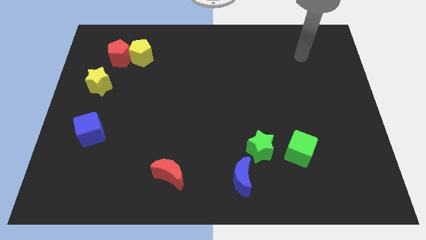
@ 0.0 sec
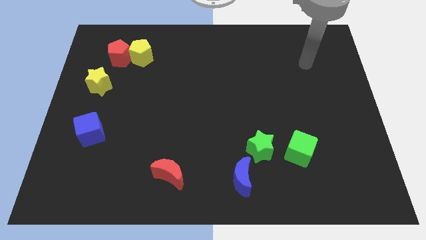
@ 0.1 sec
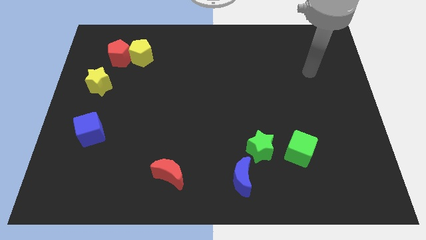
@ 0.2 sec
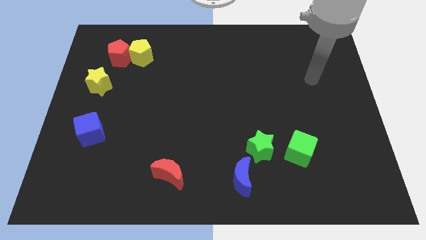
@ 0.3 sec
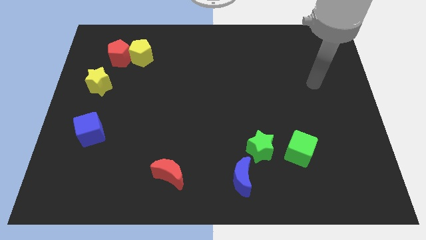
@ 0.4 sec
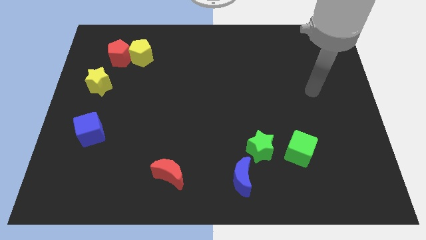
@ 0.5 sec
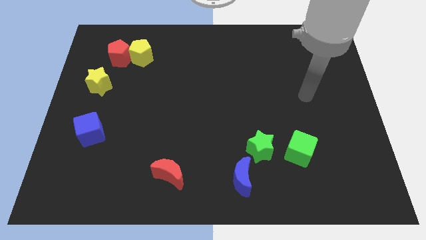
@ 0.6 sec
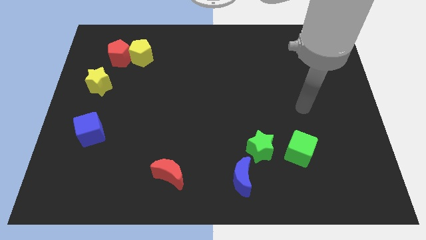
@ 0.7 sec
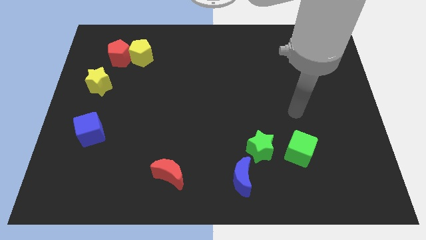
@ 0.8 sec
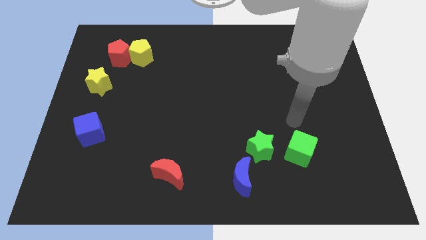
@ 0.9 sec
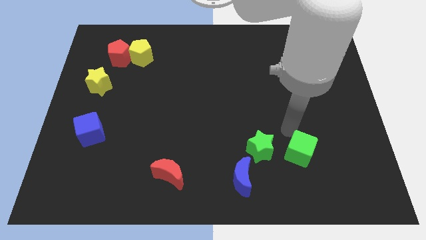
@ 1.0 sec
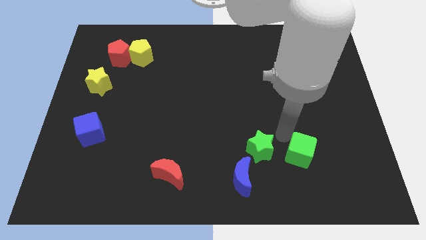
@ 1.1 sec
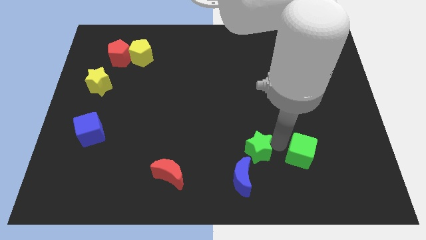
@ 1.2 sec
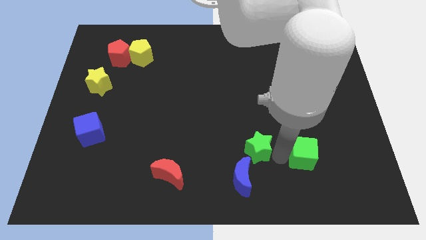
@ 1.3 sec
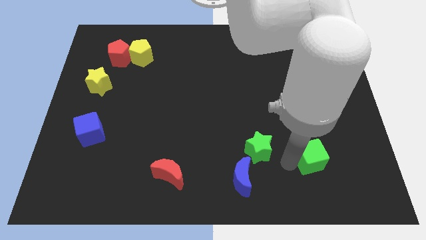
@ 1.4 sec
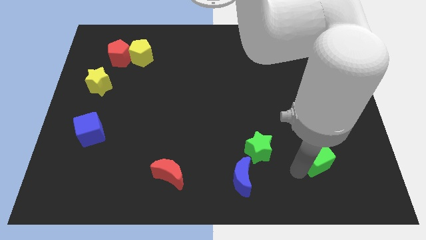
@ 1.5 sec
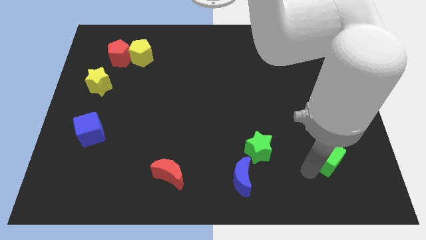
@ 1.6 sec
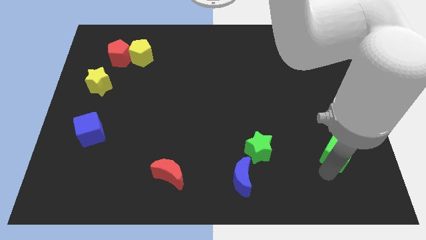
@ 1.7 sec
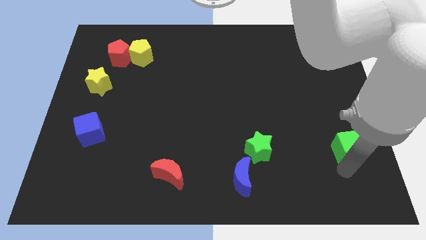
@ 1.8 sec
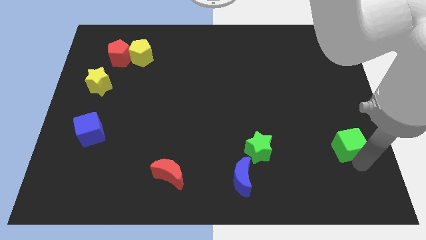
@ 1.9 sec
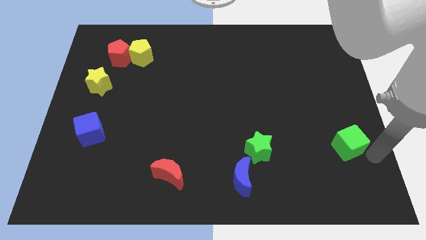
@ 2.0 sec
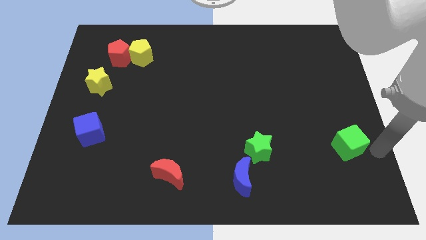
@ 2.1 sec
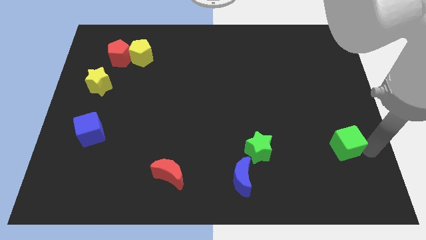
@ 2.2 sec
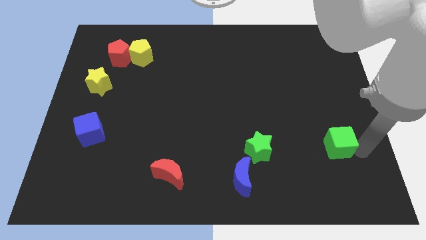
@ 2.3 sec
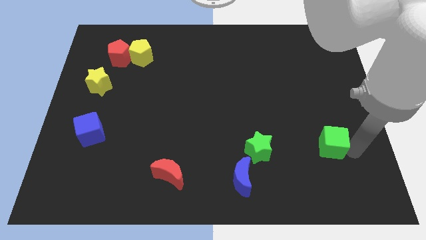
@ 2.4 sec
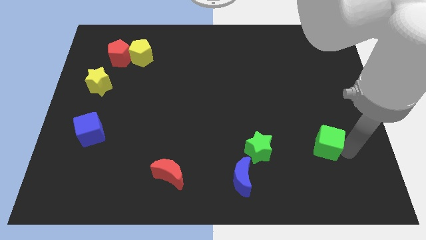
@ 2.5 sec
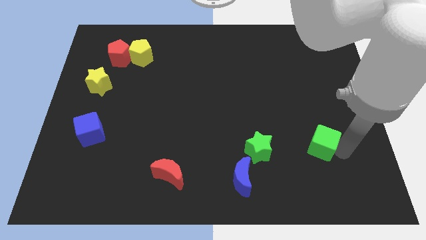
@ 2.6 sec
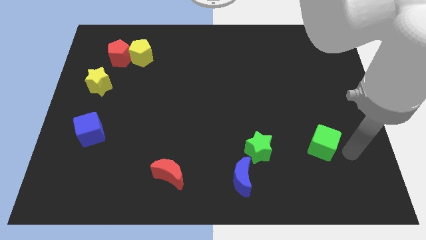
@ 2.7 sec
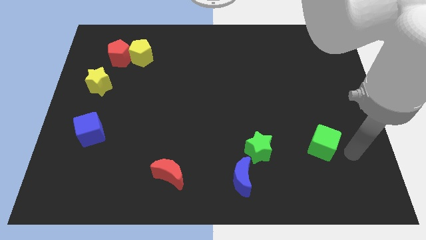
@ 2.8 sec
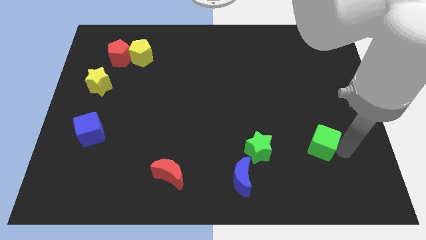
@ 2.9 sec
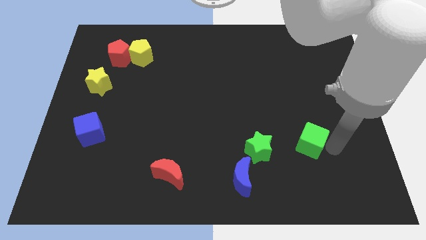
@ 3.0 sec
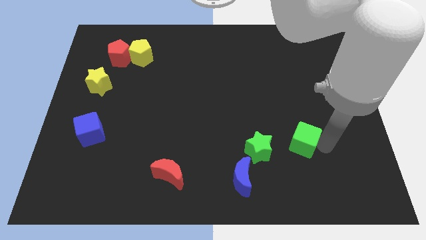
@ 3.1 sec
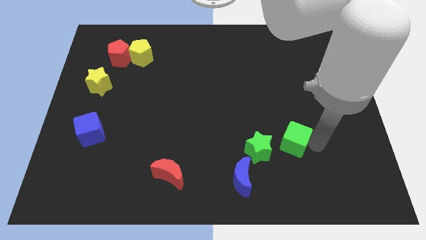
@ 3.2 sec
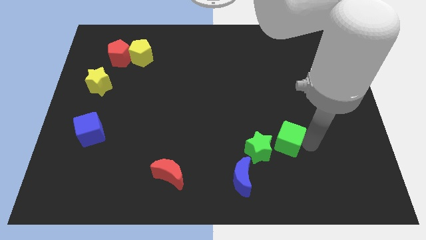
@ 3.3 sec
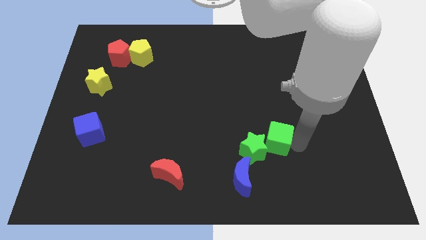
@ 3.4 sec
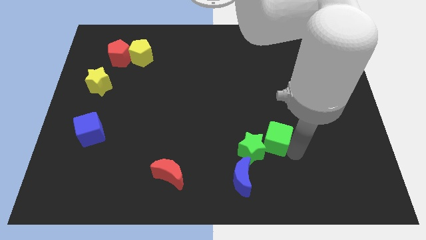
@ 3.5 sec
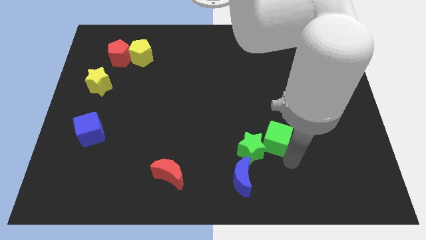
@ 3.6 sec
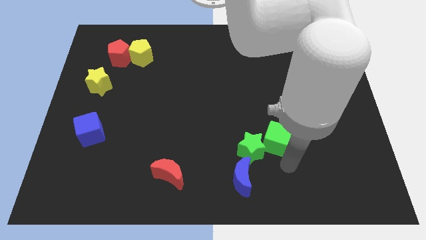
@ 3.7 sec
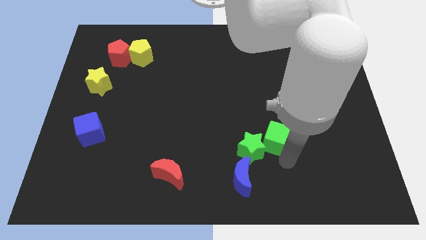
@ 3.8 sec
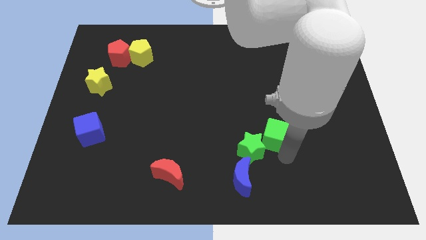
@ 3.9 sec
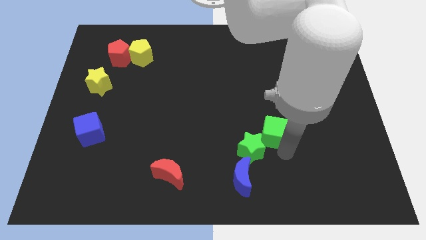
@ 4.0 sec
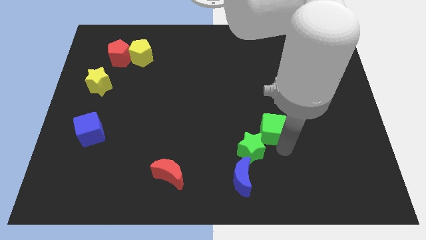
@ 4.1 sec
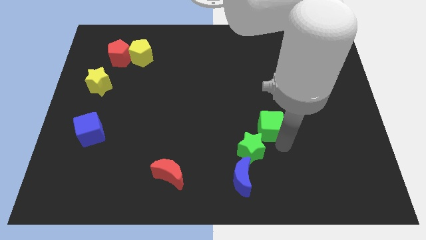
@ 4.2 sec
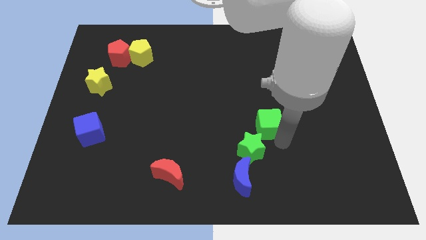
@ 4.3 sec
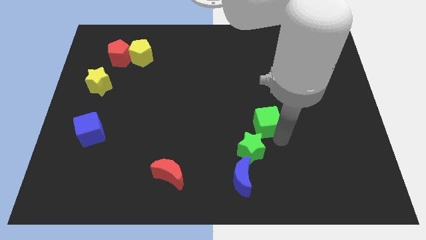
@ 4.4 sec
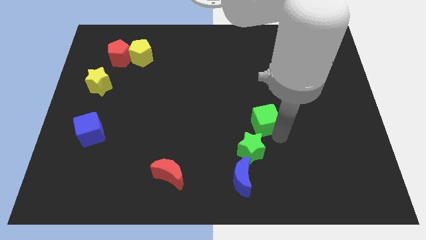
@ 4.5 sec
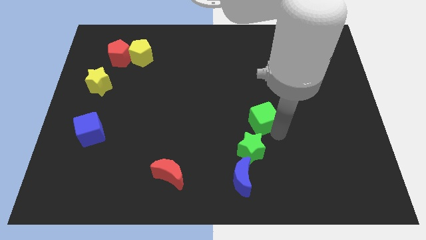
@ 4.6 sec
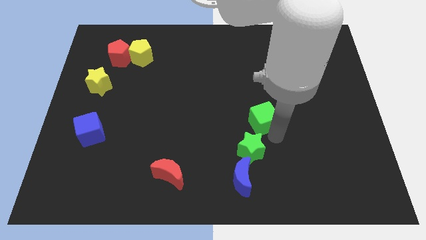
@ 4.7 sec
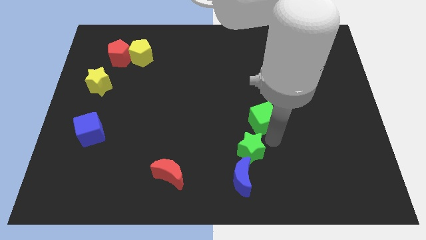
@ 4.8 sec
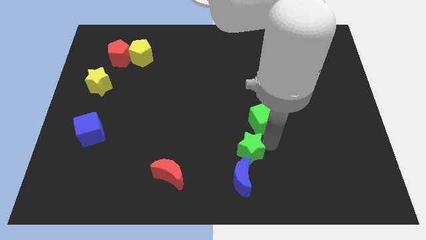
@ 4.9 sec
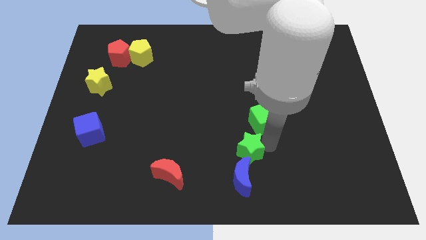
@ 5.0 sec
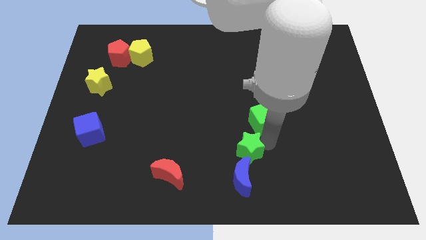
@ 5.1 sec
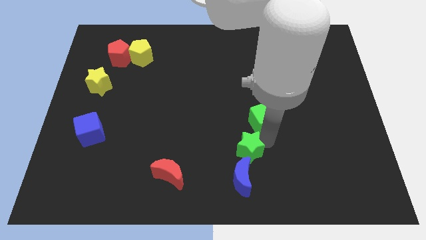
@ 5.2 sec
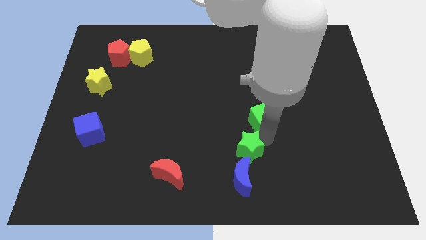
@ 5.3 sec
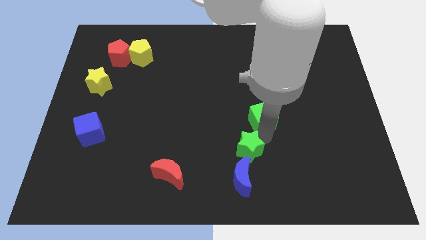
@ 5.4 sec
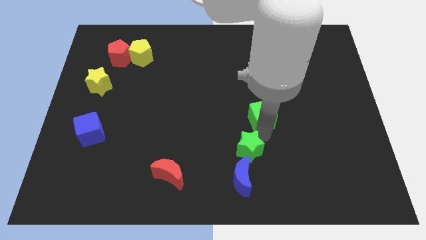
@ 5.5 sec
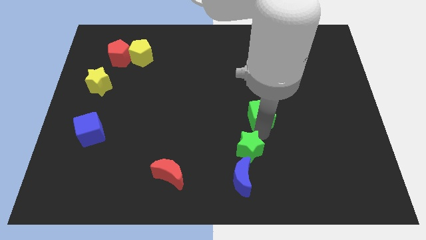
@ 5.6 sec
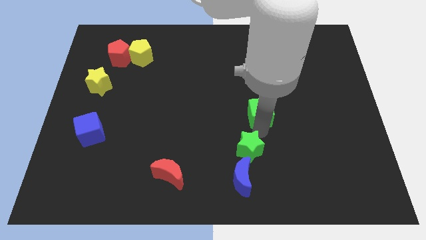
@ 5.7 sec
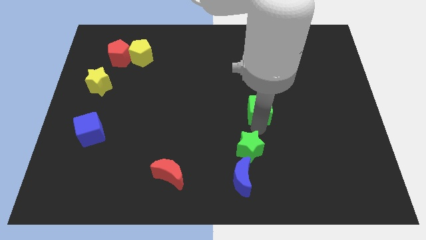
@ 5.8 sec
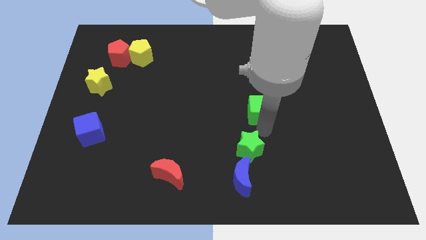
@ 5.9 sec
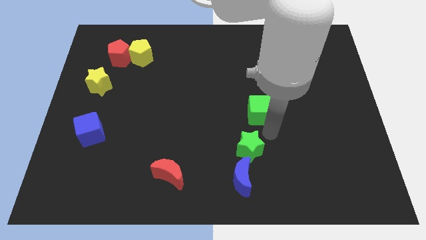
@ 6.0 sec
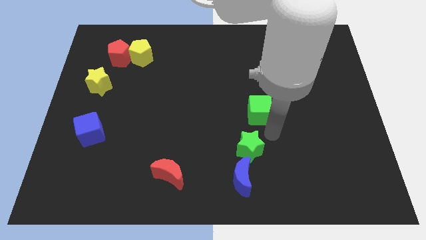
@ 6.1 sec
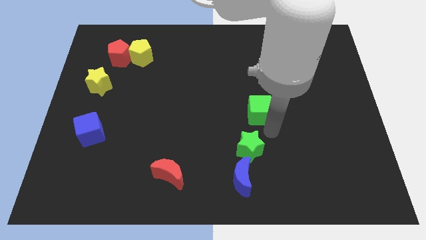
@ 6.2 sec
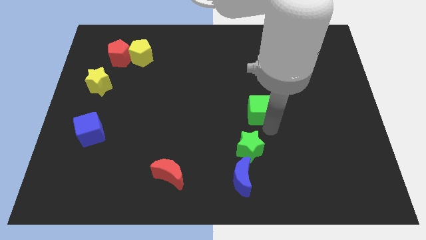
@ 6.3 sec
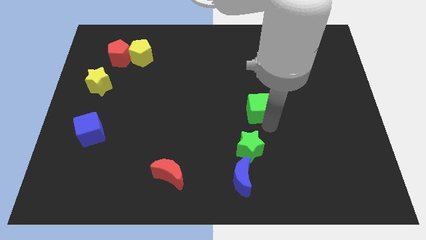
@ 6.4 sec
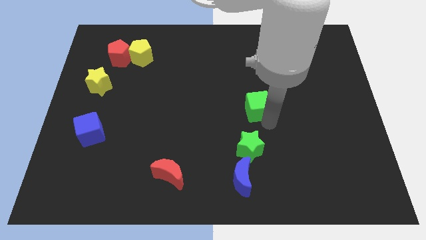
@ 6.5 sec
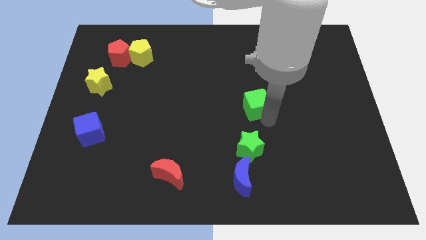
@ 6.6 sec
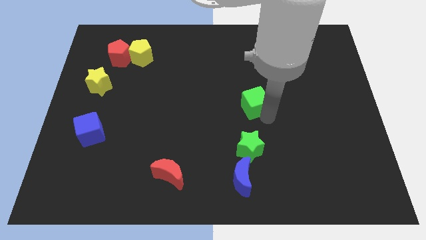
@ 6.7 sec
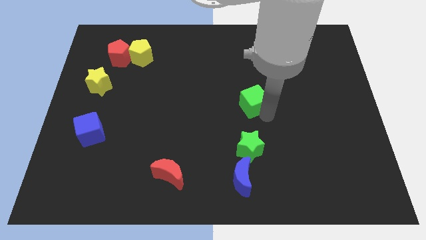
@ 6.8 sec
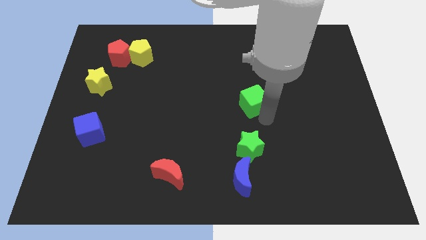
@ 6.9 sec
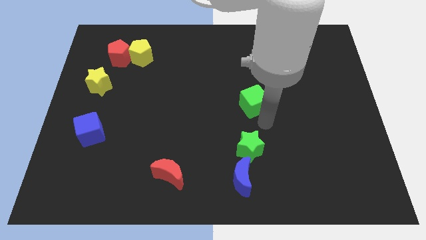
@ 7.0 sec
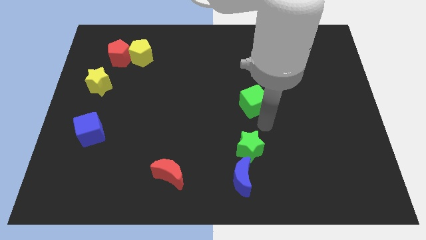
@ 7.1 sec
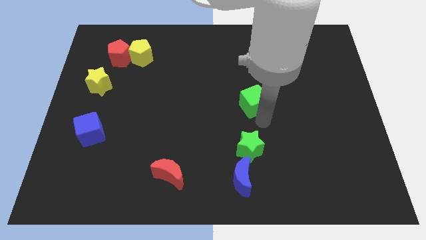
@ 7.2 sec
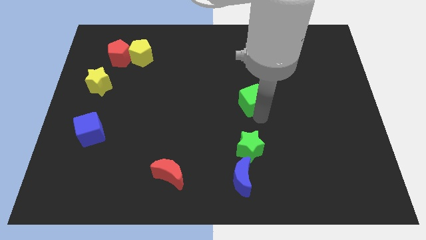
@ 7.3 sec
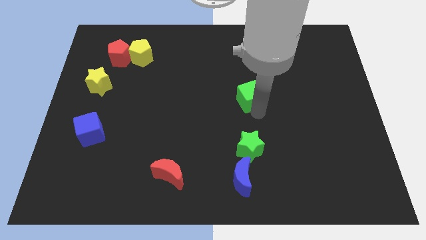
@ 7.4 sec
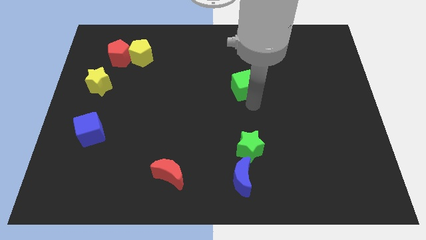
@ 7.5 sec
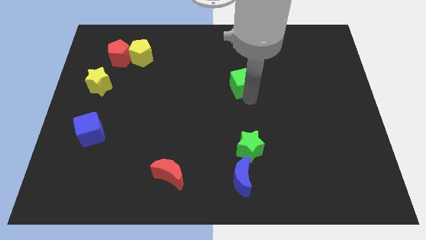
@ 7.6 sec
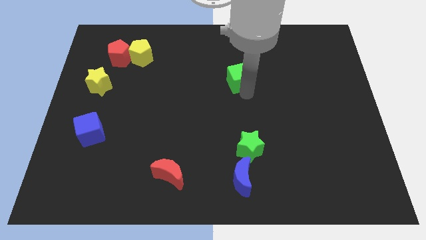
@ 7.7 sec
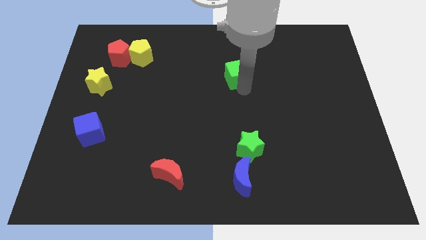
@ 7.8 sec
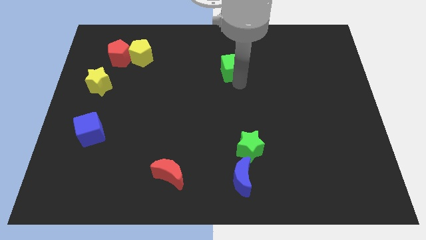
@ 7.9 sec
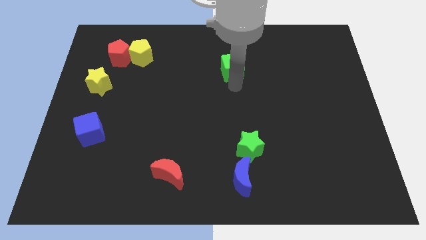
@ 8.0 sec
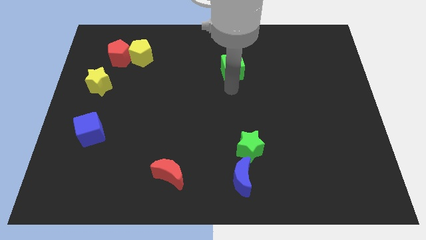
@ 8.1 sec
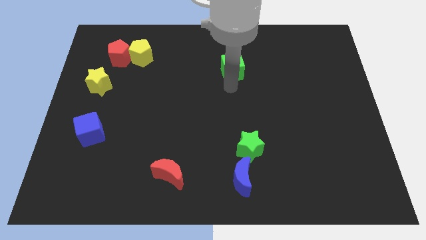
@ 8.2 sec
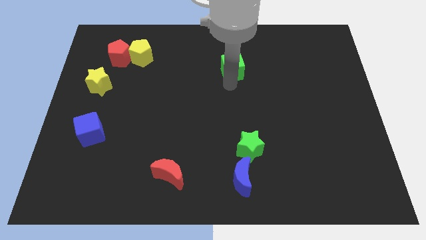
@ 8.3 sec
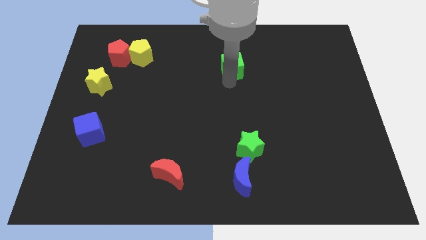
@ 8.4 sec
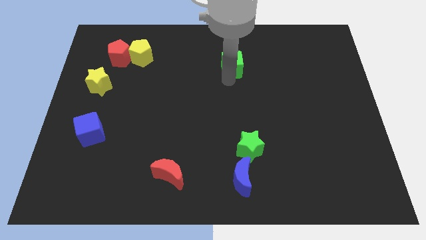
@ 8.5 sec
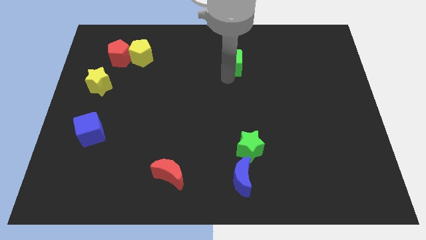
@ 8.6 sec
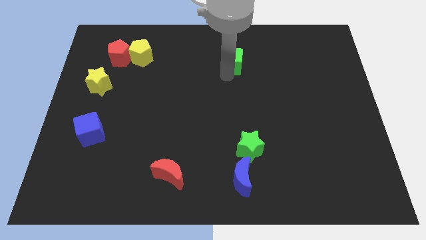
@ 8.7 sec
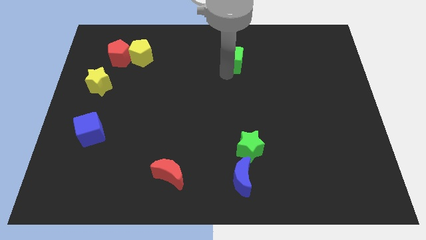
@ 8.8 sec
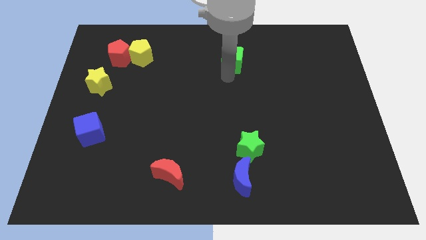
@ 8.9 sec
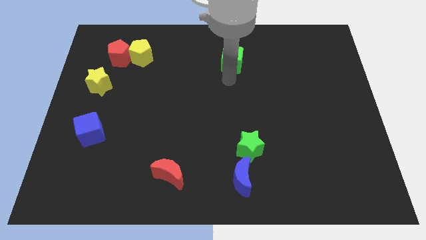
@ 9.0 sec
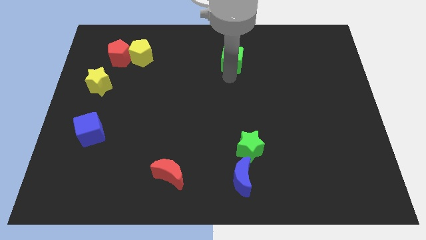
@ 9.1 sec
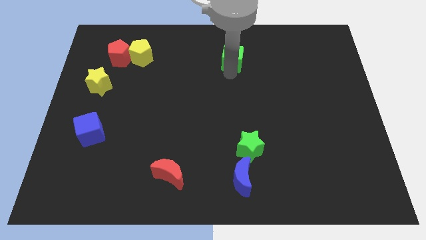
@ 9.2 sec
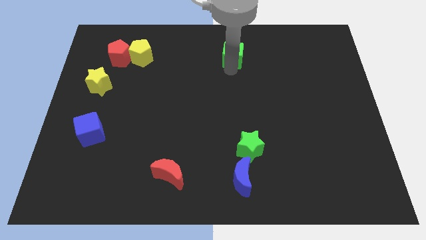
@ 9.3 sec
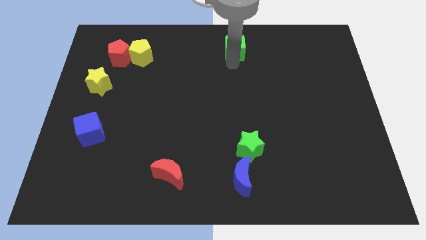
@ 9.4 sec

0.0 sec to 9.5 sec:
push the green cube to the top side
